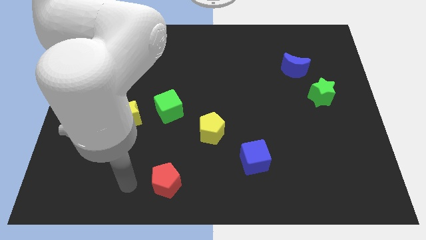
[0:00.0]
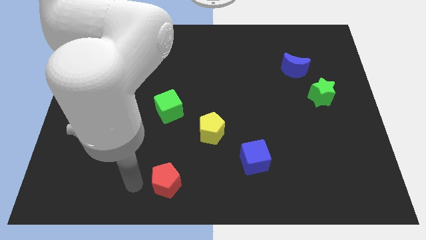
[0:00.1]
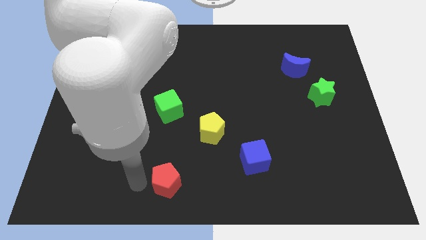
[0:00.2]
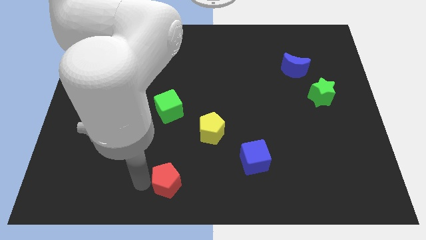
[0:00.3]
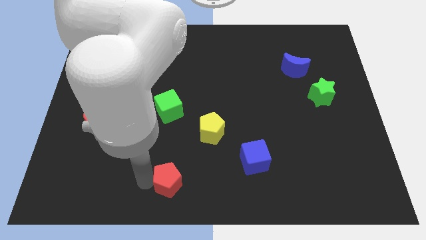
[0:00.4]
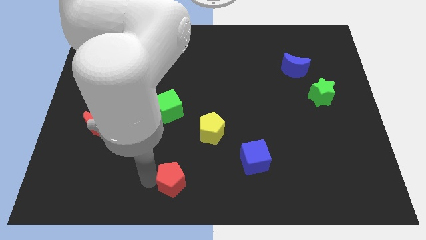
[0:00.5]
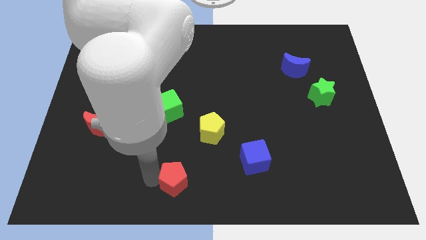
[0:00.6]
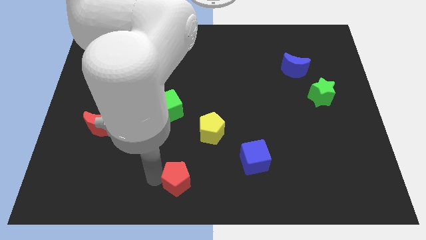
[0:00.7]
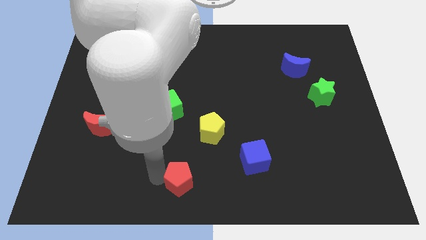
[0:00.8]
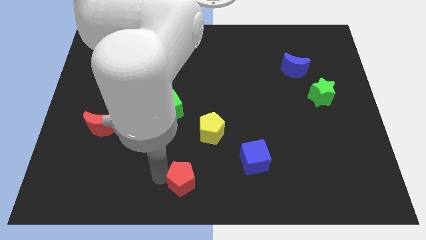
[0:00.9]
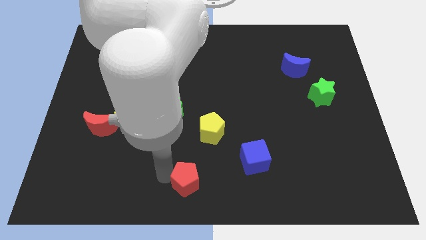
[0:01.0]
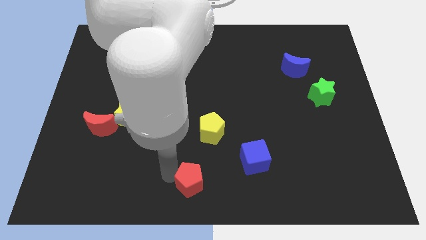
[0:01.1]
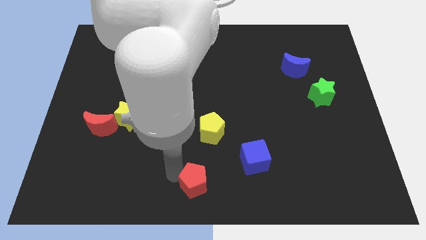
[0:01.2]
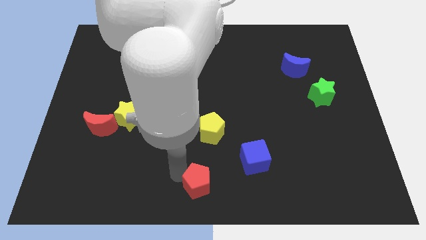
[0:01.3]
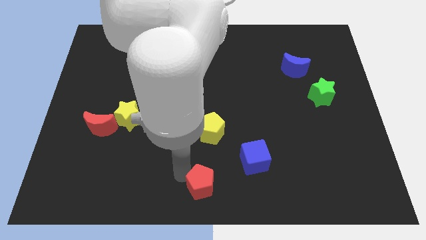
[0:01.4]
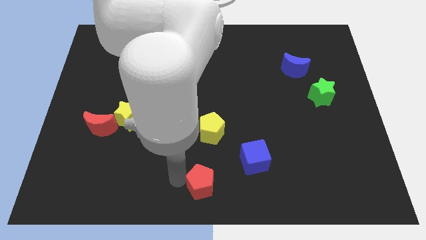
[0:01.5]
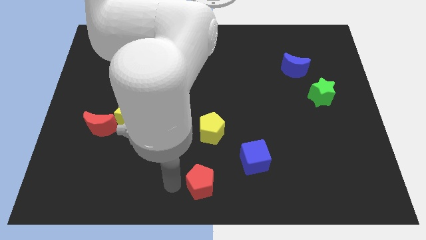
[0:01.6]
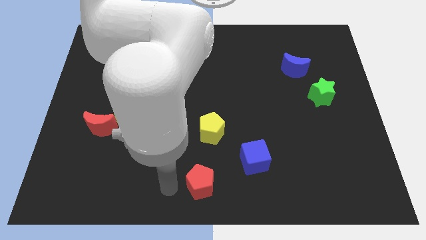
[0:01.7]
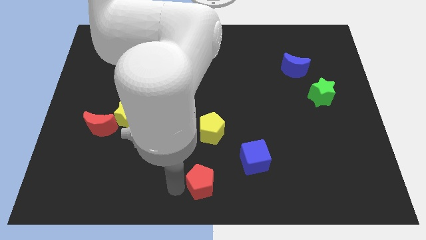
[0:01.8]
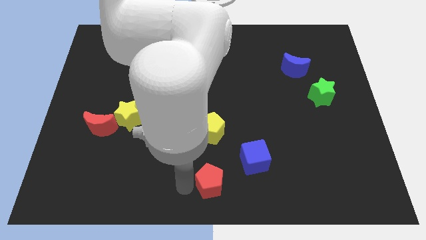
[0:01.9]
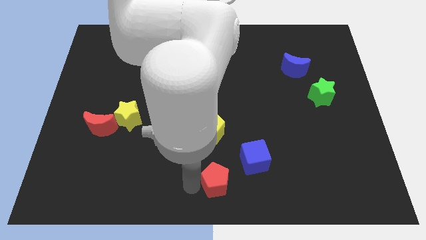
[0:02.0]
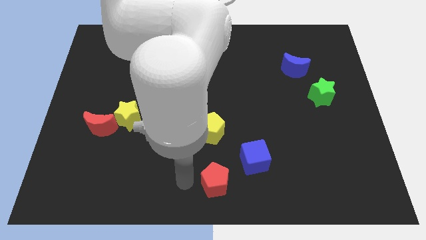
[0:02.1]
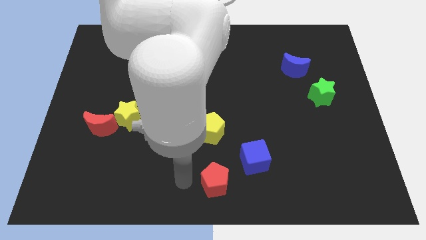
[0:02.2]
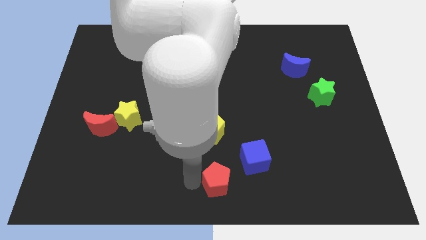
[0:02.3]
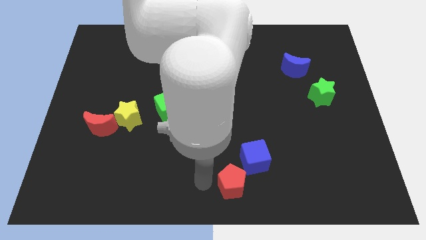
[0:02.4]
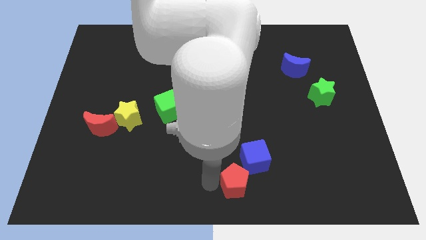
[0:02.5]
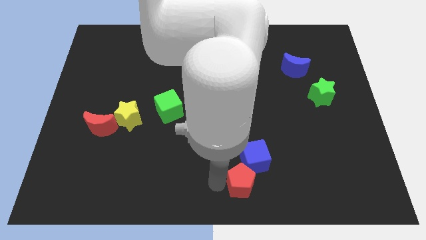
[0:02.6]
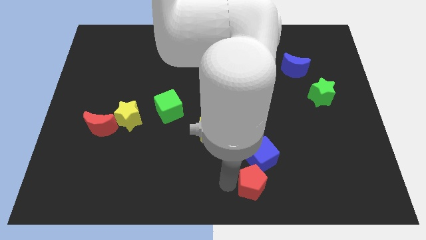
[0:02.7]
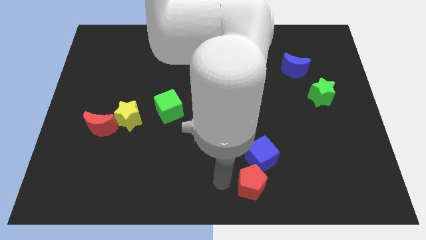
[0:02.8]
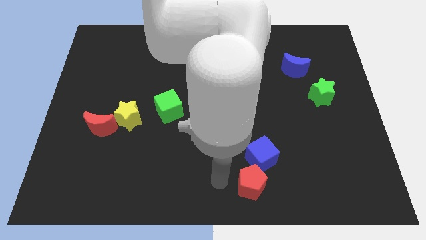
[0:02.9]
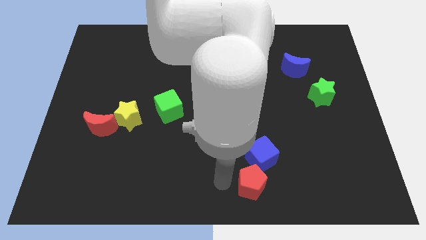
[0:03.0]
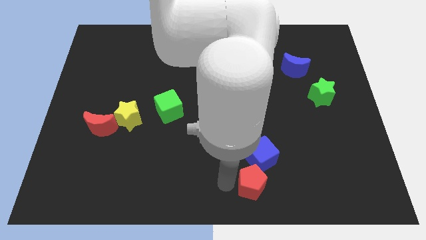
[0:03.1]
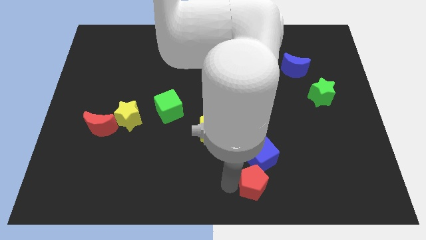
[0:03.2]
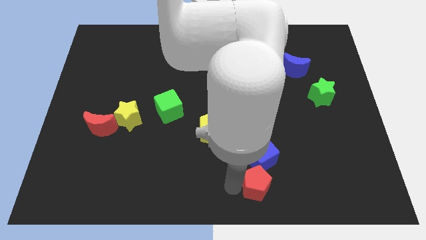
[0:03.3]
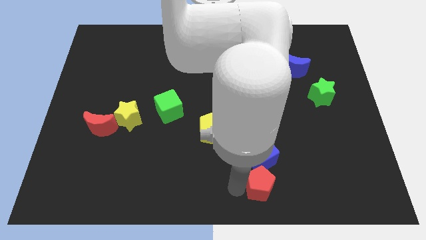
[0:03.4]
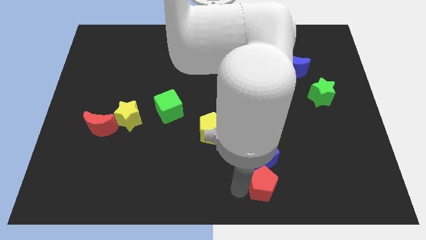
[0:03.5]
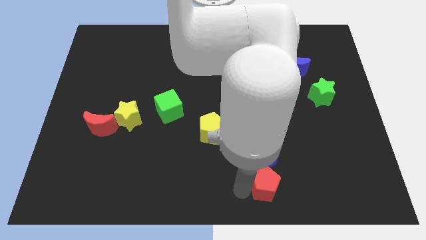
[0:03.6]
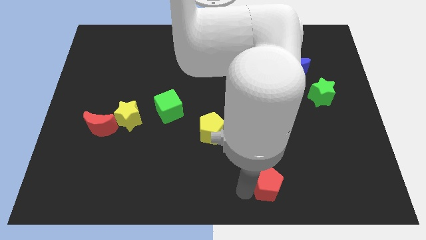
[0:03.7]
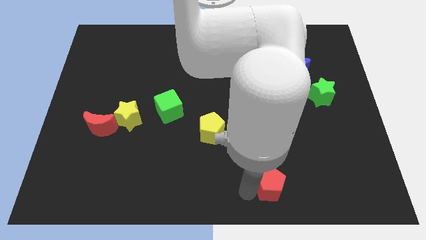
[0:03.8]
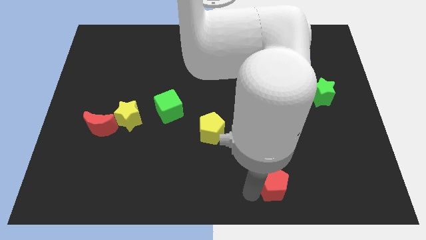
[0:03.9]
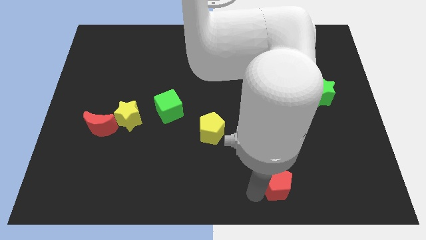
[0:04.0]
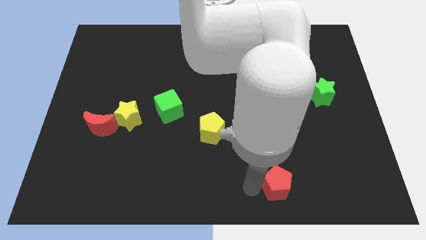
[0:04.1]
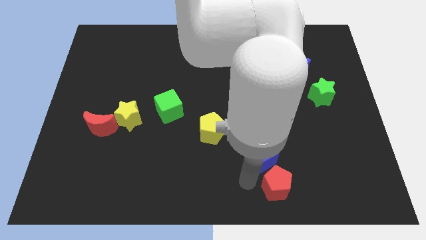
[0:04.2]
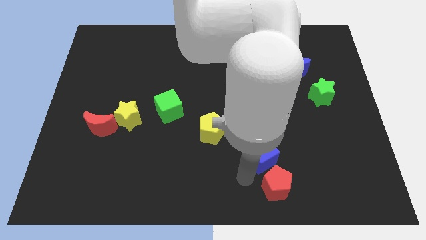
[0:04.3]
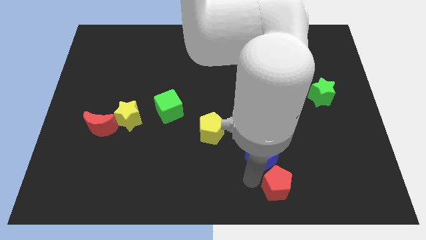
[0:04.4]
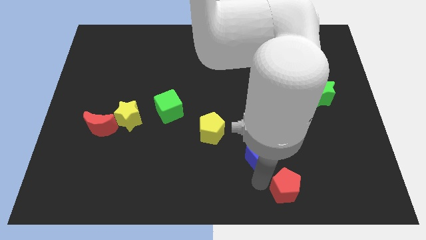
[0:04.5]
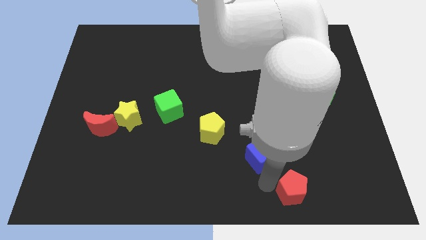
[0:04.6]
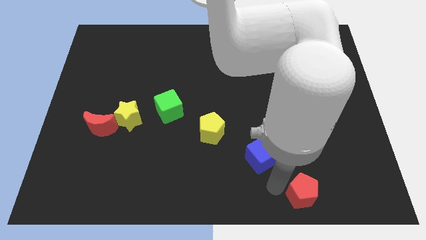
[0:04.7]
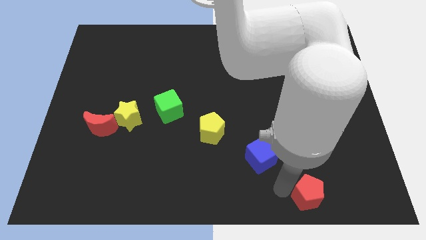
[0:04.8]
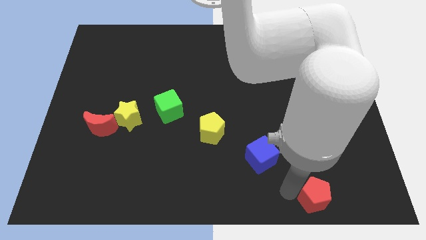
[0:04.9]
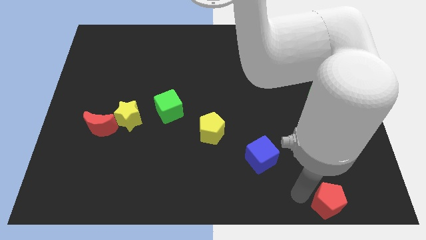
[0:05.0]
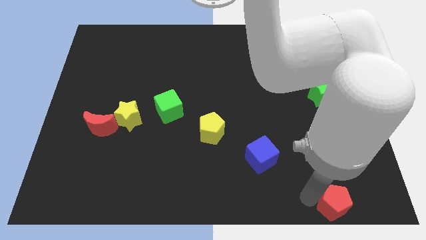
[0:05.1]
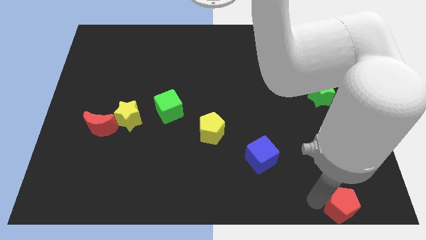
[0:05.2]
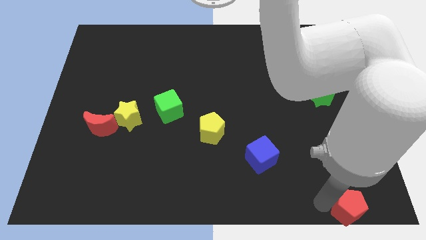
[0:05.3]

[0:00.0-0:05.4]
slide the red pentagon to the bottom right corner

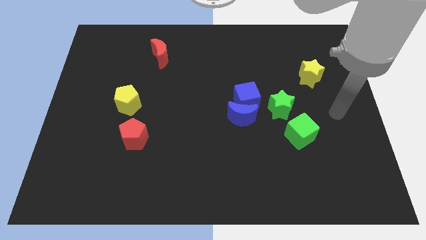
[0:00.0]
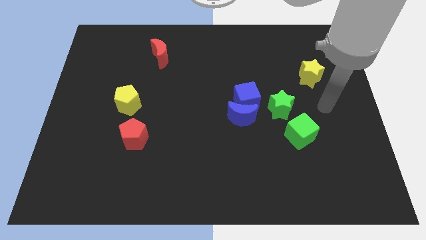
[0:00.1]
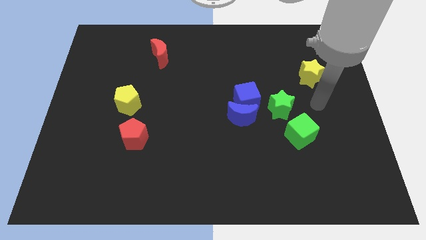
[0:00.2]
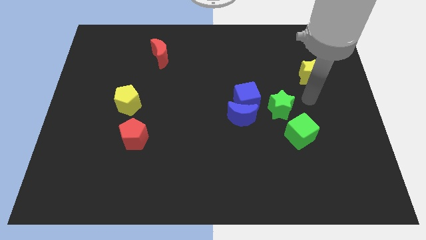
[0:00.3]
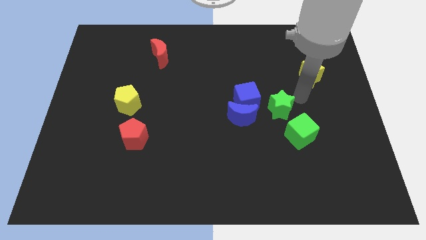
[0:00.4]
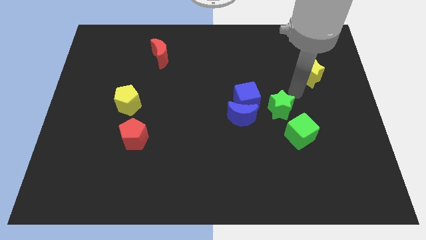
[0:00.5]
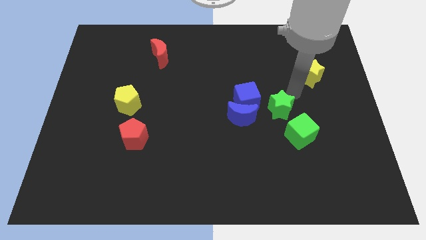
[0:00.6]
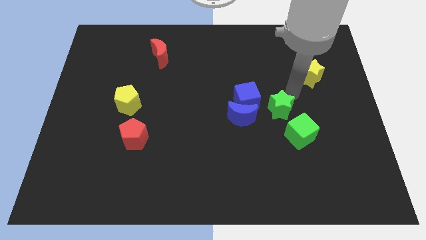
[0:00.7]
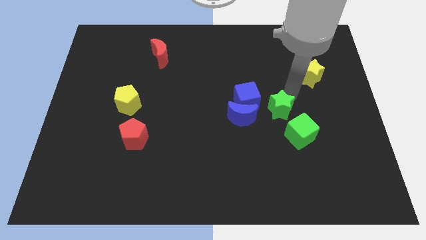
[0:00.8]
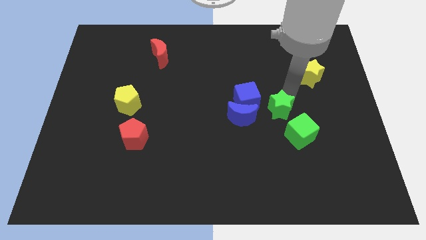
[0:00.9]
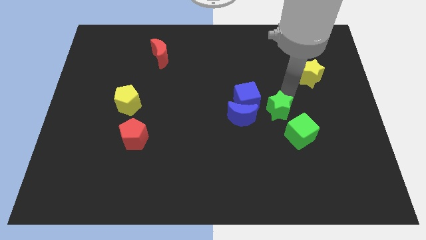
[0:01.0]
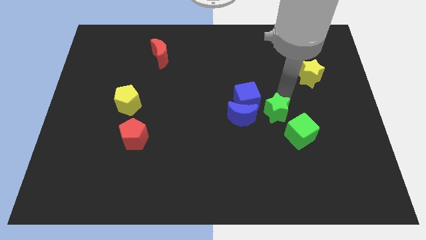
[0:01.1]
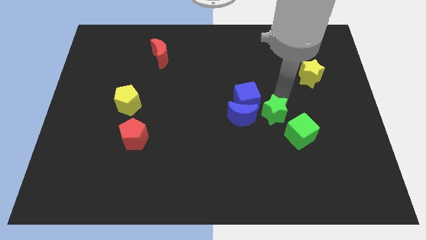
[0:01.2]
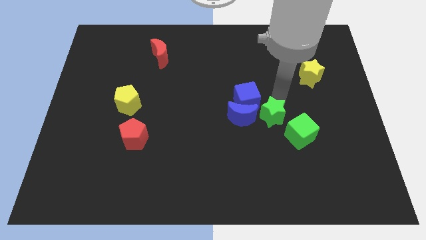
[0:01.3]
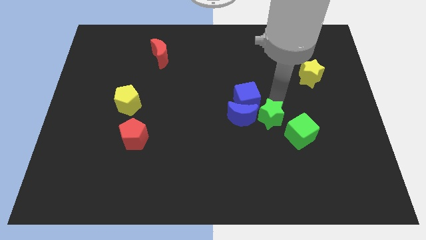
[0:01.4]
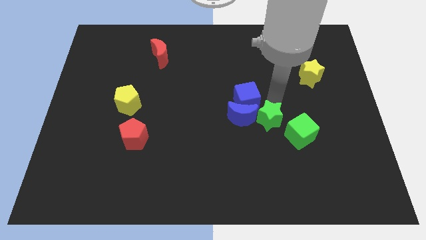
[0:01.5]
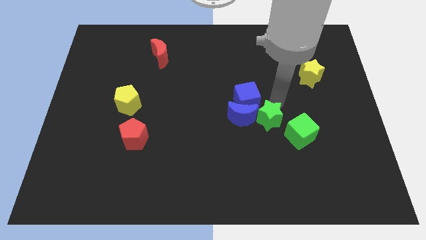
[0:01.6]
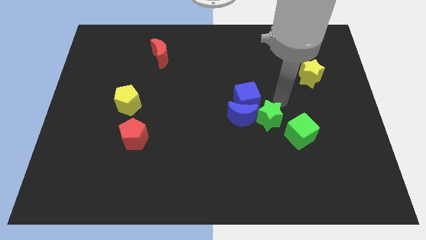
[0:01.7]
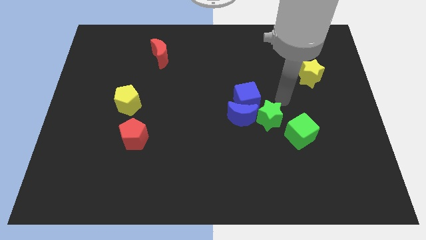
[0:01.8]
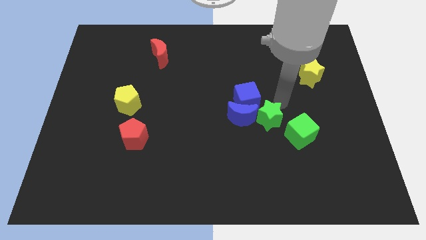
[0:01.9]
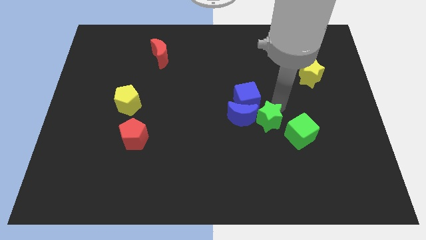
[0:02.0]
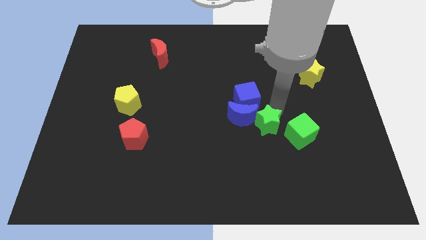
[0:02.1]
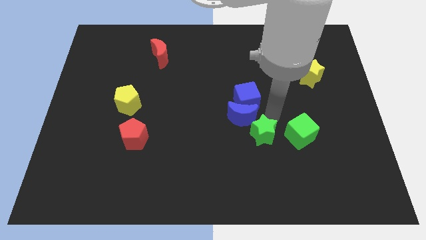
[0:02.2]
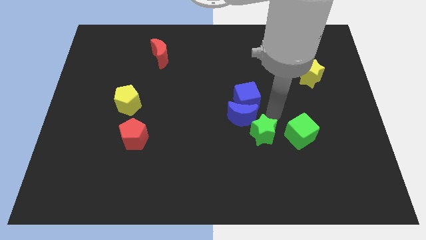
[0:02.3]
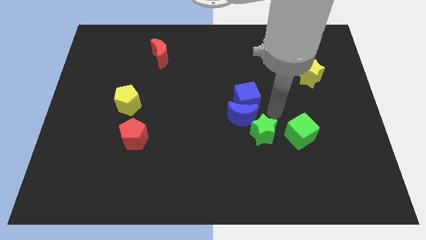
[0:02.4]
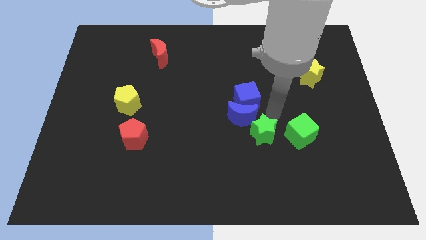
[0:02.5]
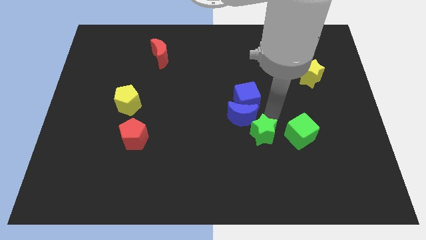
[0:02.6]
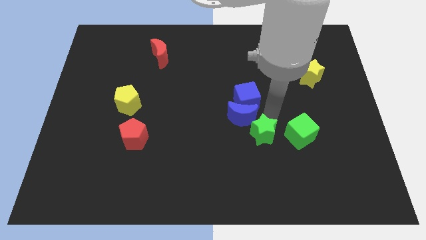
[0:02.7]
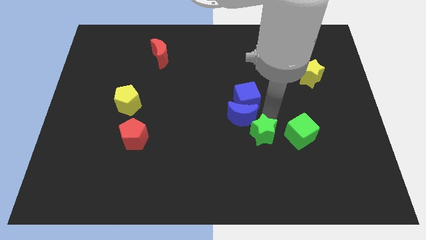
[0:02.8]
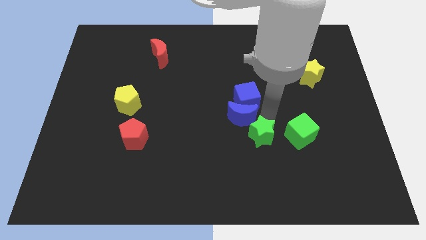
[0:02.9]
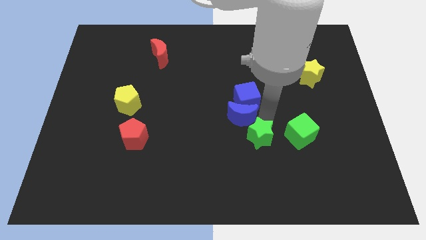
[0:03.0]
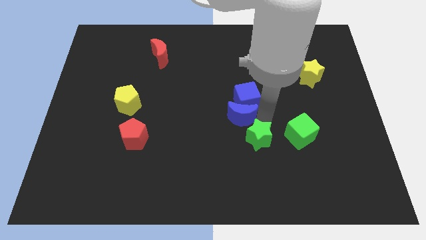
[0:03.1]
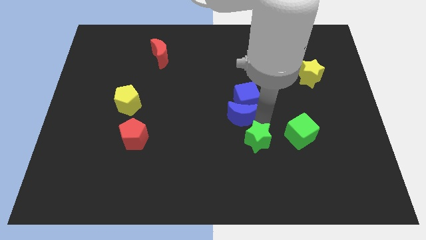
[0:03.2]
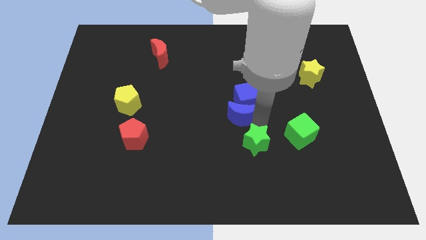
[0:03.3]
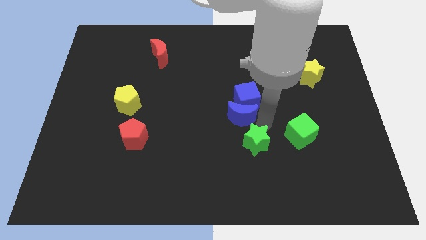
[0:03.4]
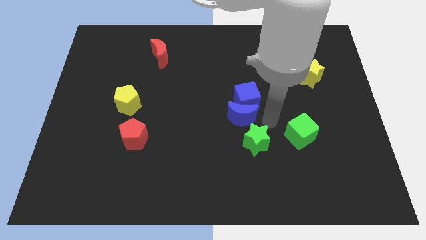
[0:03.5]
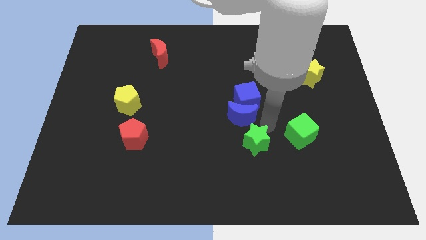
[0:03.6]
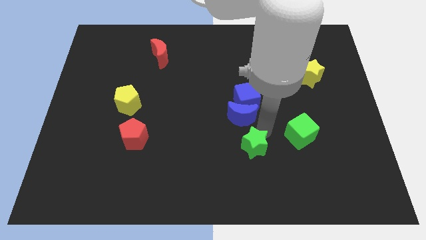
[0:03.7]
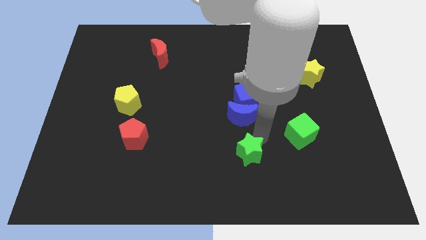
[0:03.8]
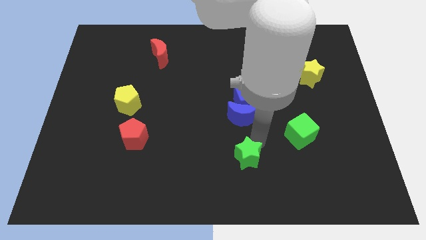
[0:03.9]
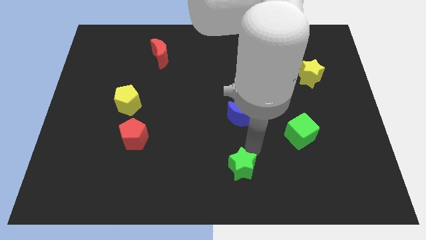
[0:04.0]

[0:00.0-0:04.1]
move the green star to the bottom
